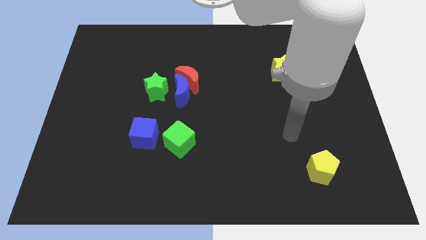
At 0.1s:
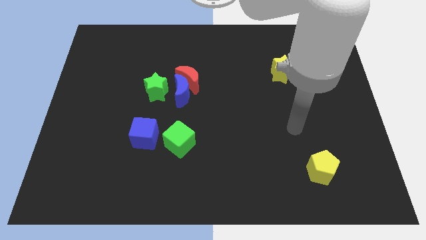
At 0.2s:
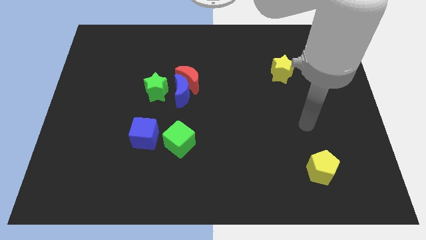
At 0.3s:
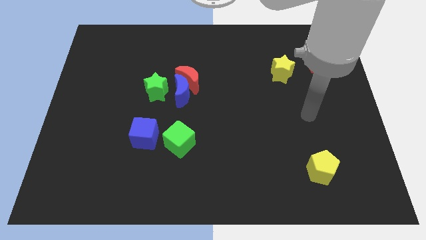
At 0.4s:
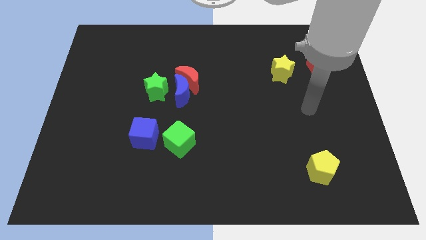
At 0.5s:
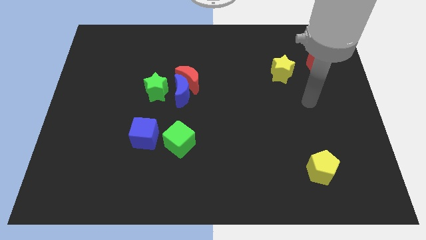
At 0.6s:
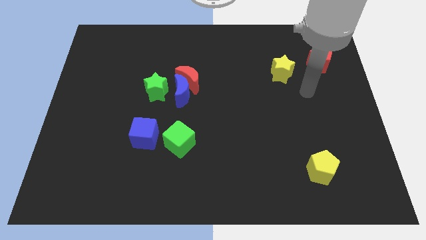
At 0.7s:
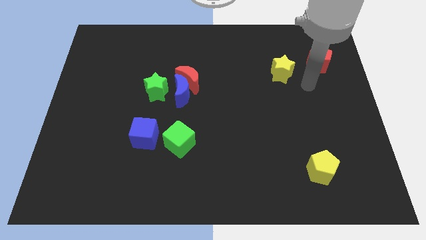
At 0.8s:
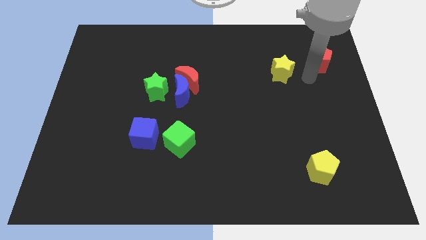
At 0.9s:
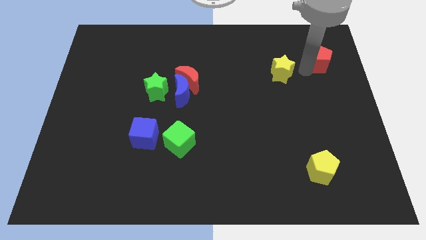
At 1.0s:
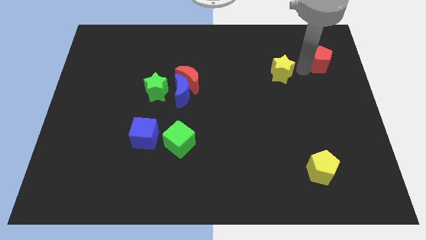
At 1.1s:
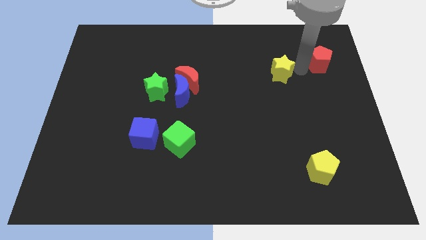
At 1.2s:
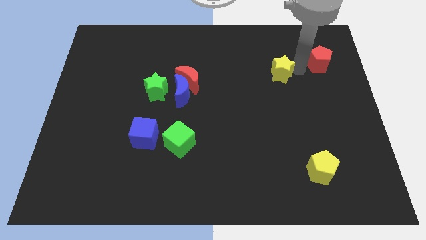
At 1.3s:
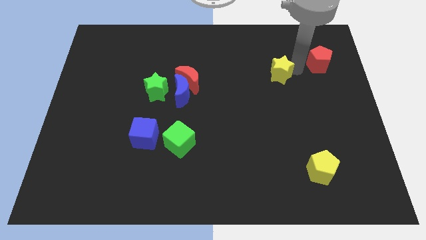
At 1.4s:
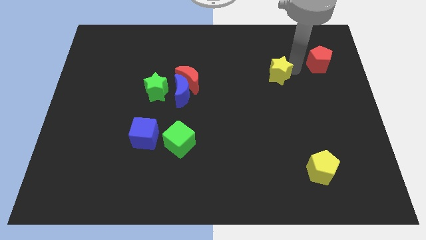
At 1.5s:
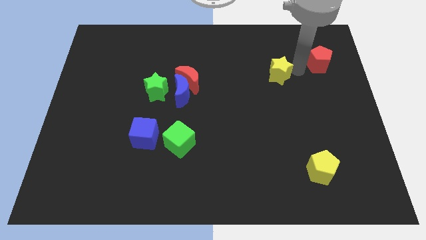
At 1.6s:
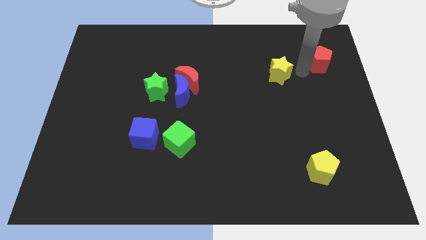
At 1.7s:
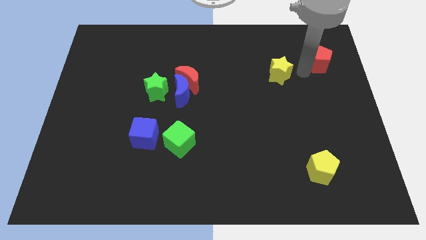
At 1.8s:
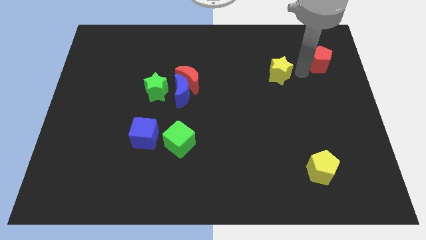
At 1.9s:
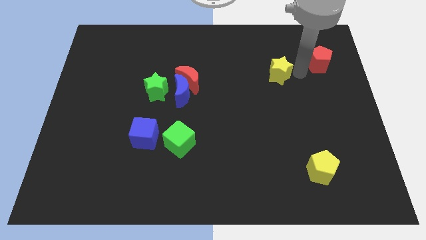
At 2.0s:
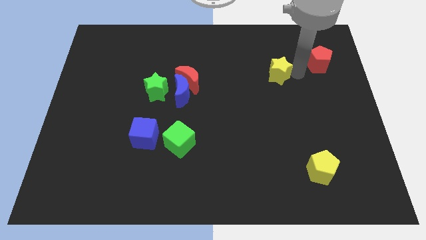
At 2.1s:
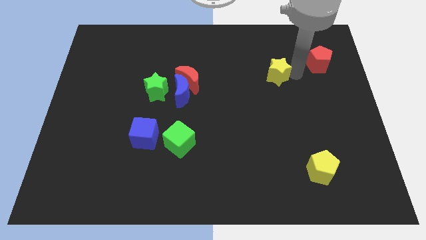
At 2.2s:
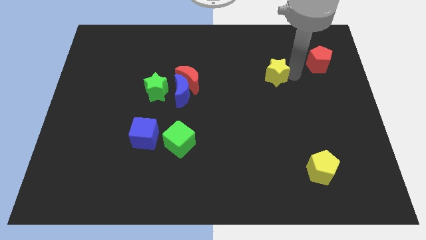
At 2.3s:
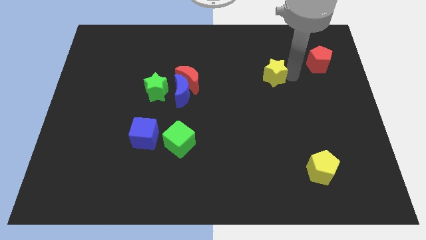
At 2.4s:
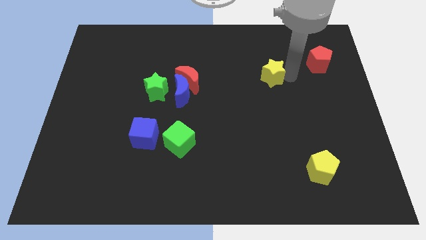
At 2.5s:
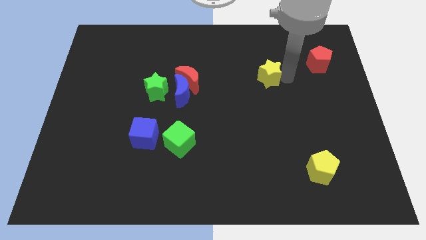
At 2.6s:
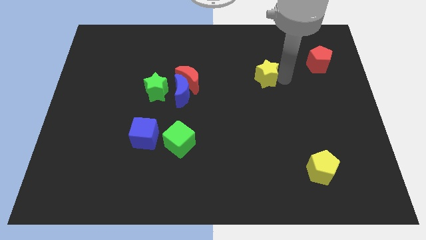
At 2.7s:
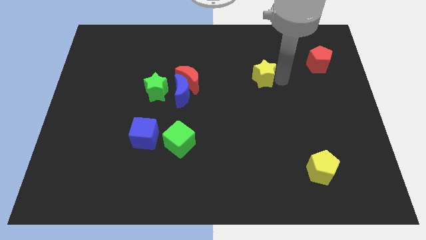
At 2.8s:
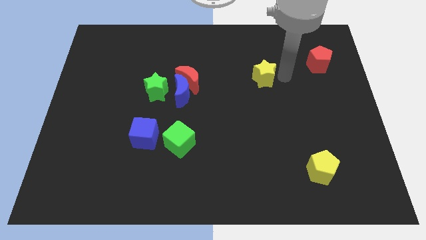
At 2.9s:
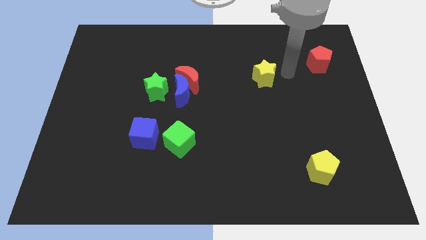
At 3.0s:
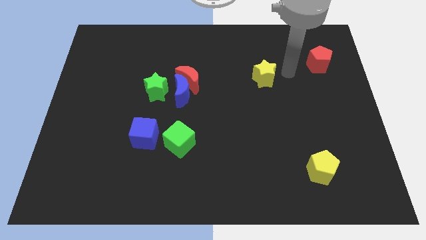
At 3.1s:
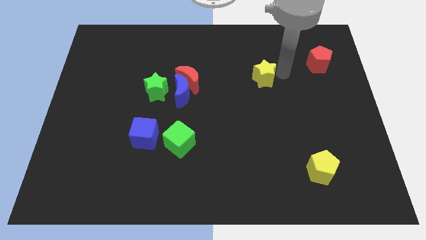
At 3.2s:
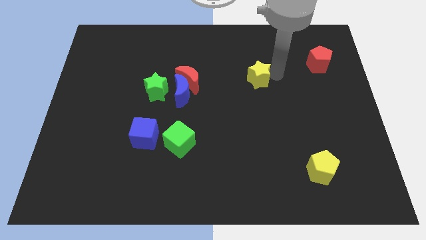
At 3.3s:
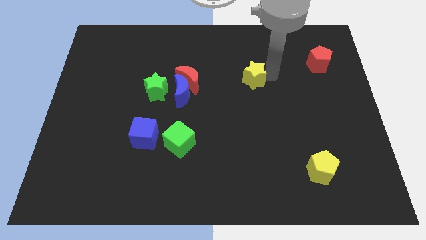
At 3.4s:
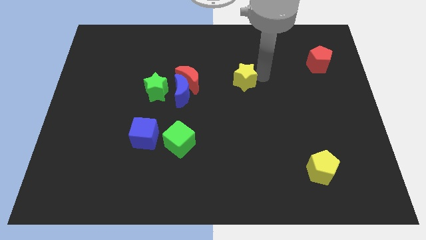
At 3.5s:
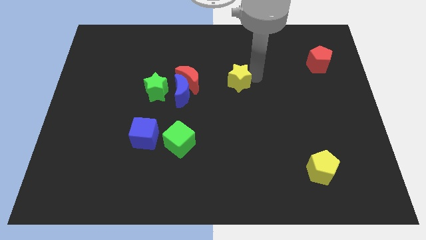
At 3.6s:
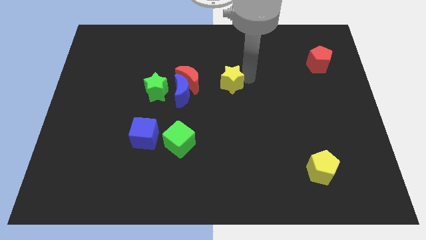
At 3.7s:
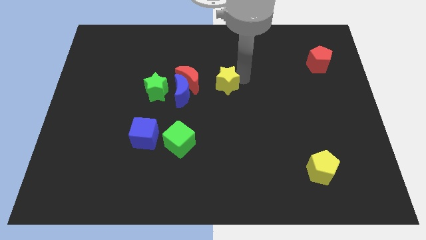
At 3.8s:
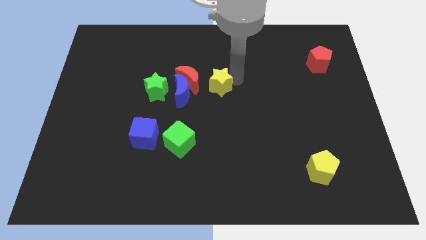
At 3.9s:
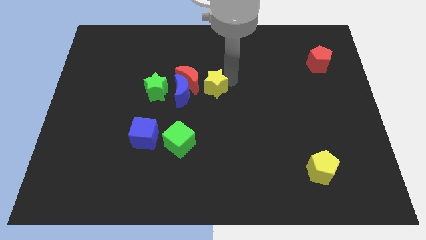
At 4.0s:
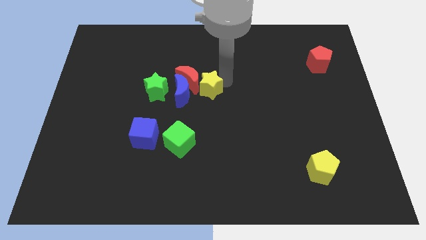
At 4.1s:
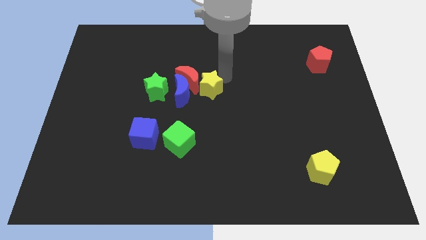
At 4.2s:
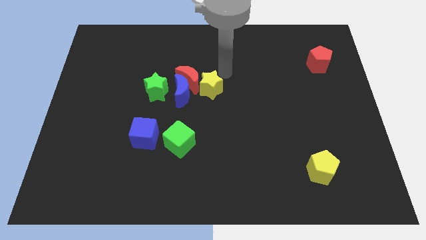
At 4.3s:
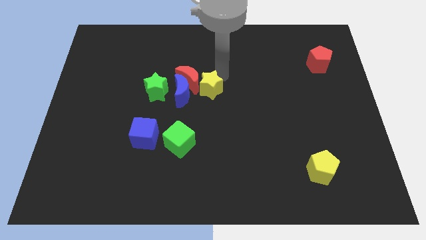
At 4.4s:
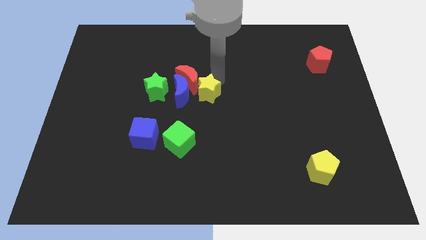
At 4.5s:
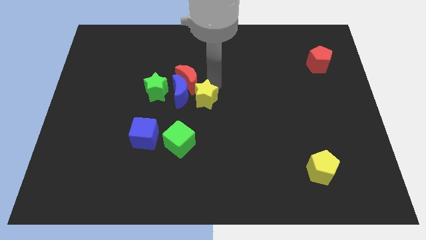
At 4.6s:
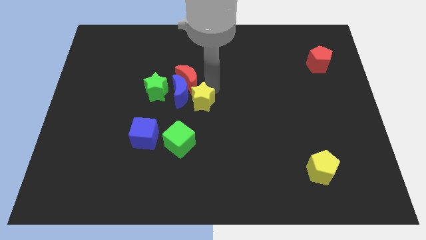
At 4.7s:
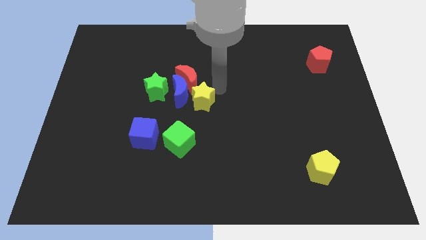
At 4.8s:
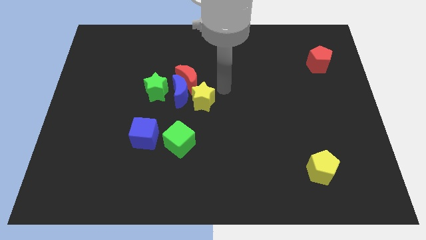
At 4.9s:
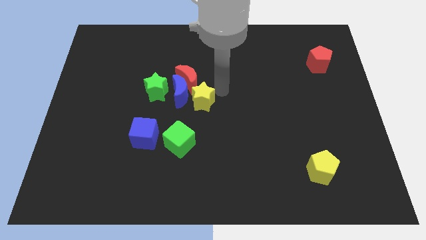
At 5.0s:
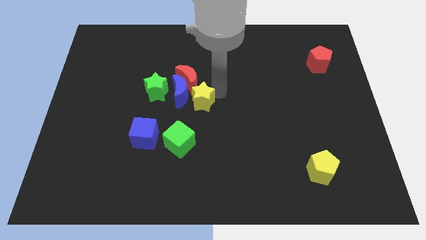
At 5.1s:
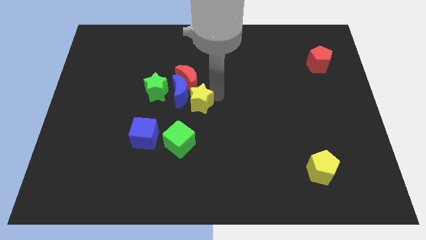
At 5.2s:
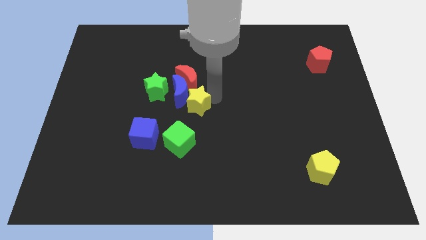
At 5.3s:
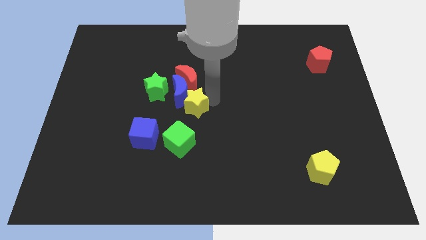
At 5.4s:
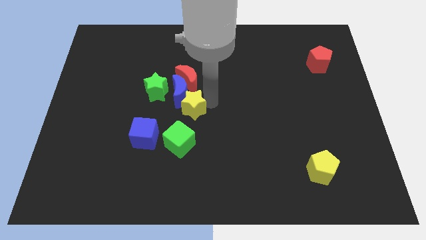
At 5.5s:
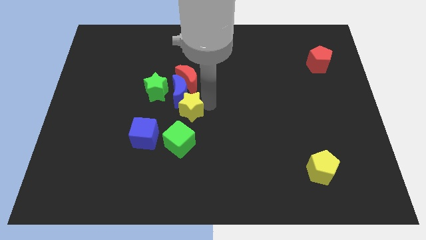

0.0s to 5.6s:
put the yellow star diagonally up and to the right of the blue cube

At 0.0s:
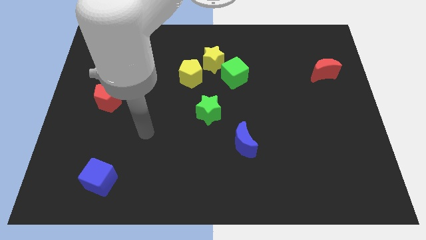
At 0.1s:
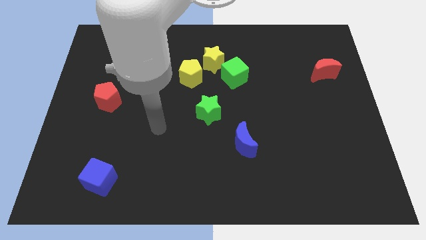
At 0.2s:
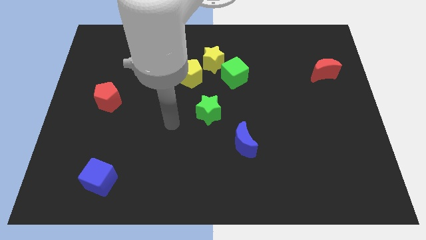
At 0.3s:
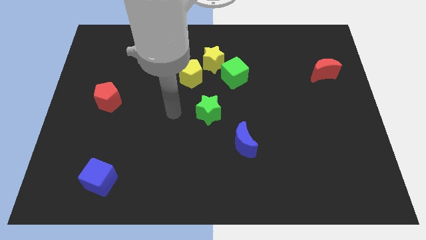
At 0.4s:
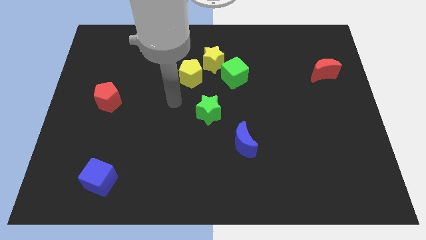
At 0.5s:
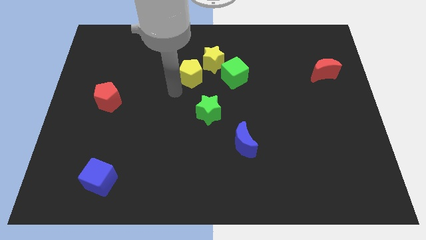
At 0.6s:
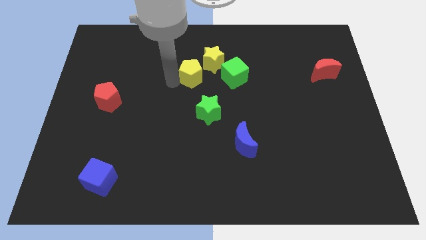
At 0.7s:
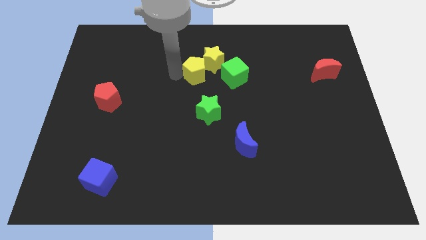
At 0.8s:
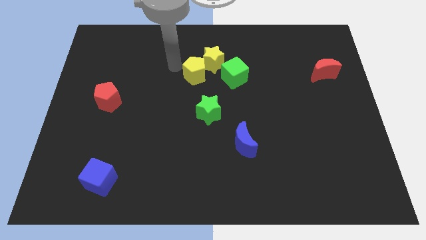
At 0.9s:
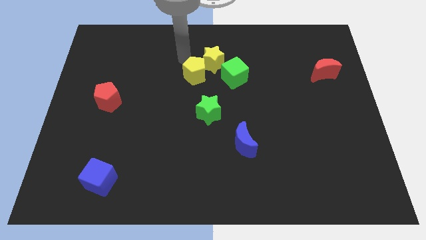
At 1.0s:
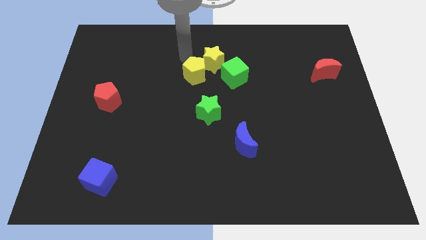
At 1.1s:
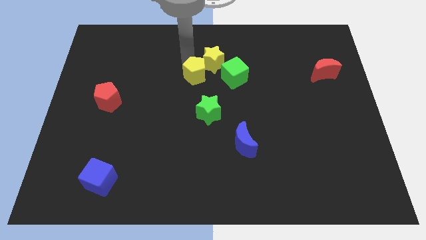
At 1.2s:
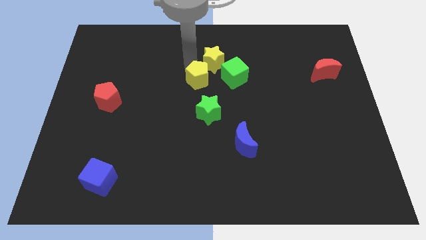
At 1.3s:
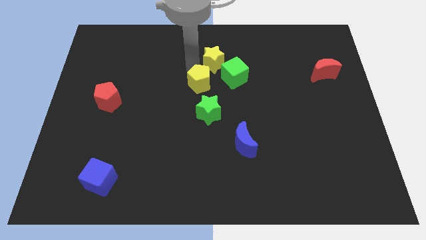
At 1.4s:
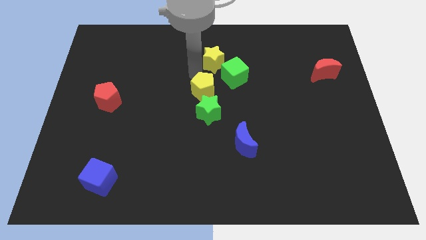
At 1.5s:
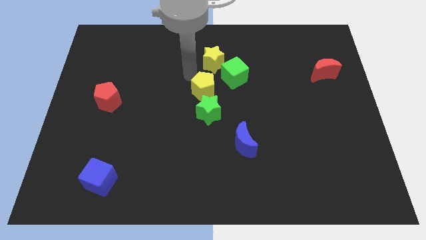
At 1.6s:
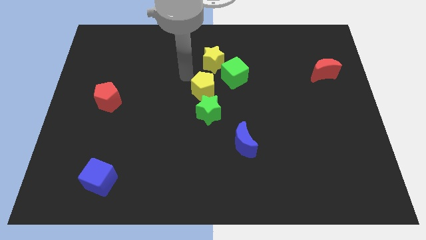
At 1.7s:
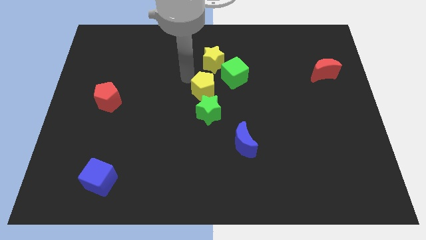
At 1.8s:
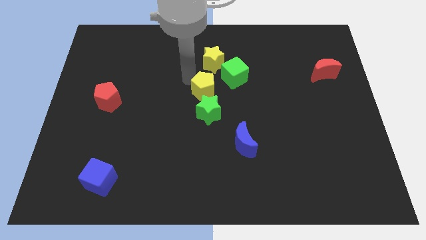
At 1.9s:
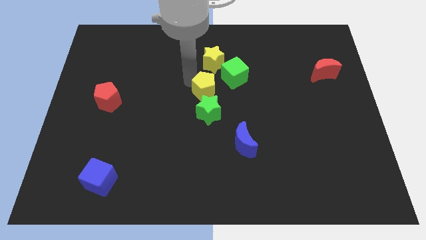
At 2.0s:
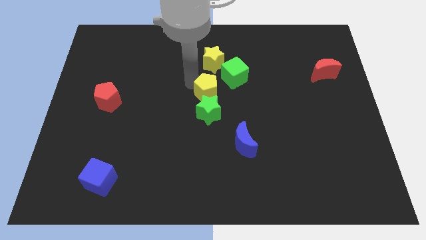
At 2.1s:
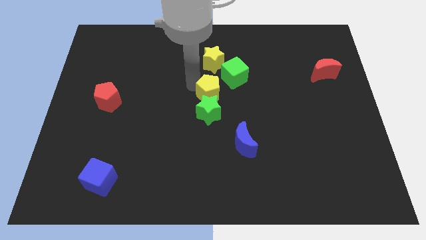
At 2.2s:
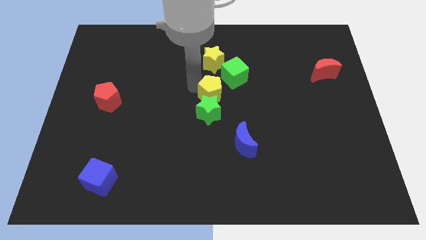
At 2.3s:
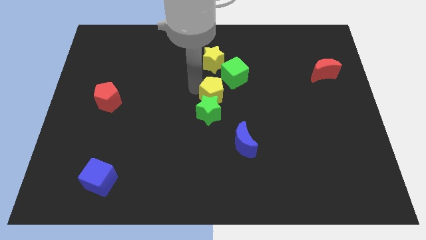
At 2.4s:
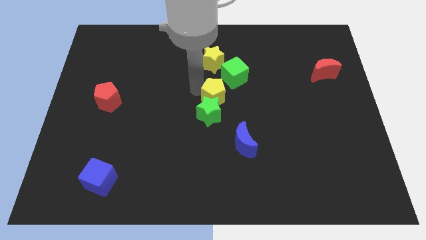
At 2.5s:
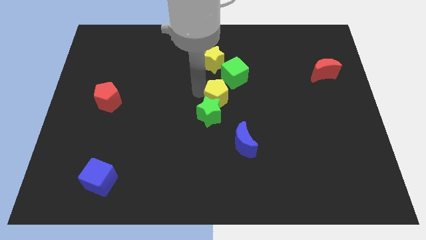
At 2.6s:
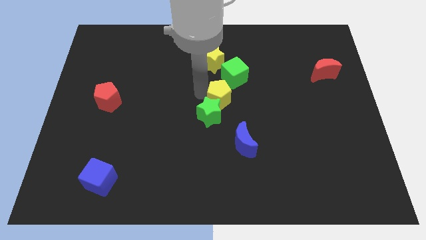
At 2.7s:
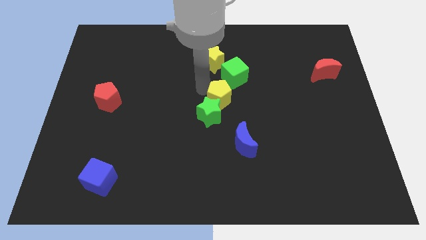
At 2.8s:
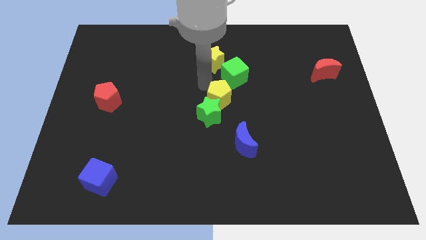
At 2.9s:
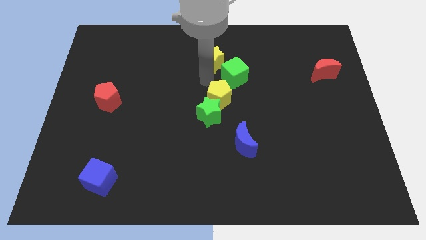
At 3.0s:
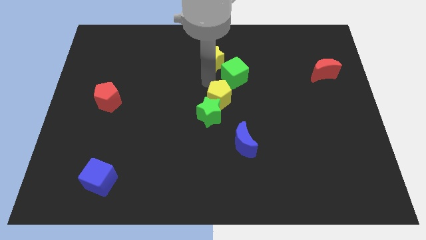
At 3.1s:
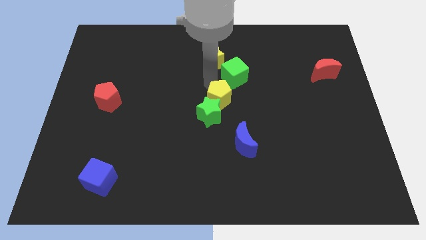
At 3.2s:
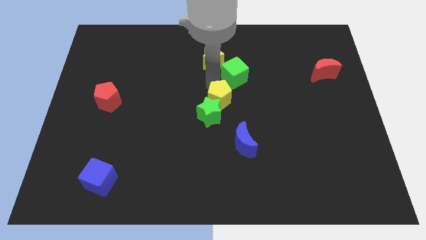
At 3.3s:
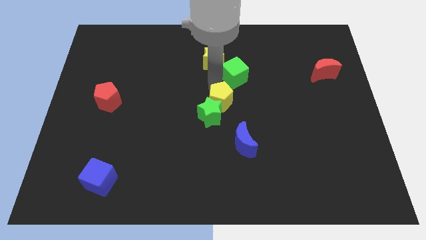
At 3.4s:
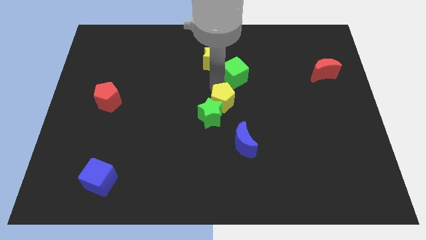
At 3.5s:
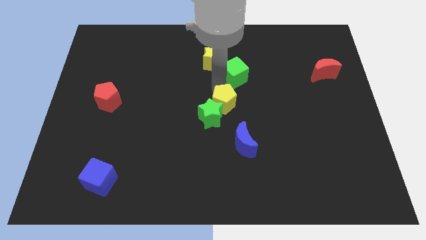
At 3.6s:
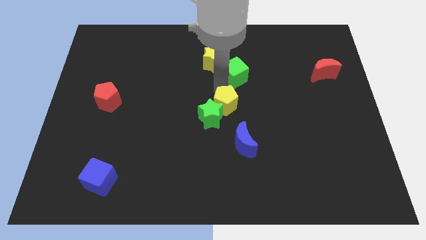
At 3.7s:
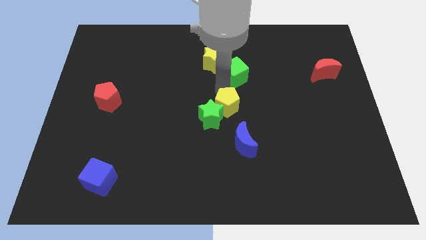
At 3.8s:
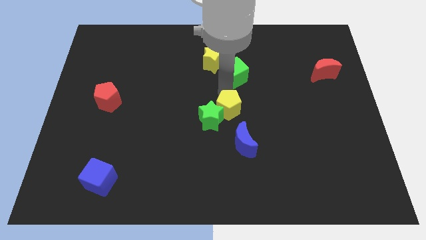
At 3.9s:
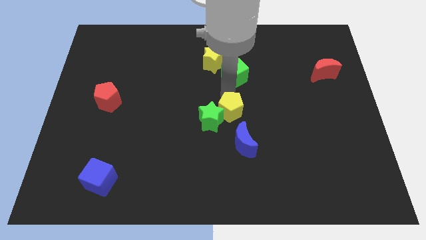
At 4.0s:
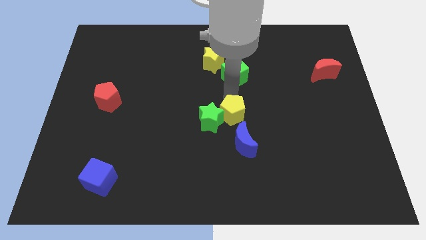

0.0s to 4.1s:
slide the yellow pentagon to the bottom right of the green star
